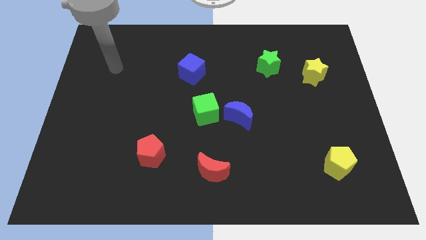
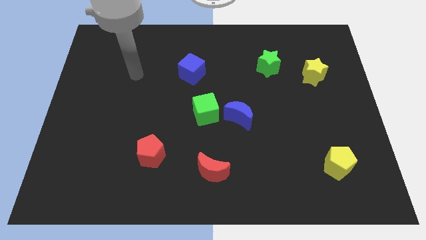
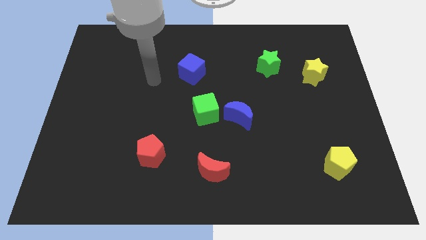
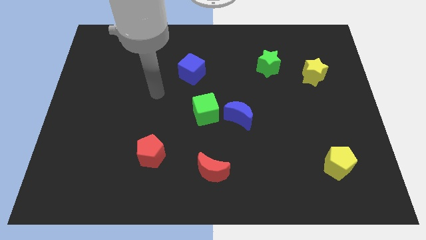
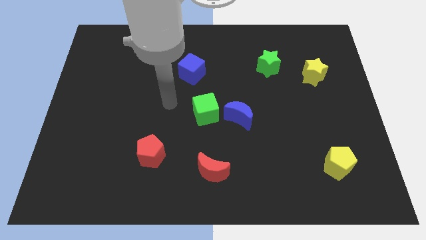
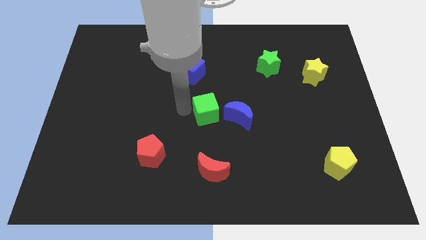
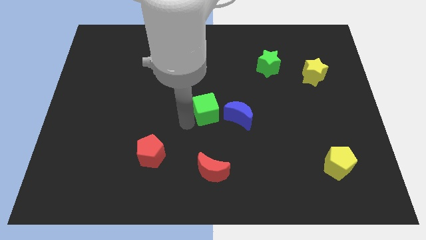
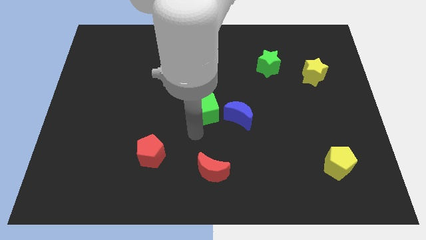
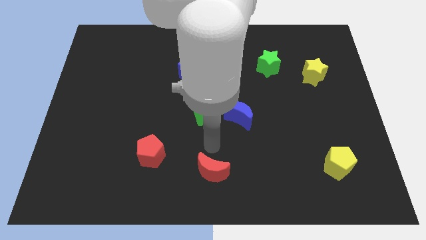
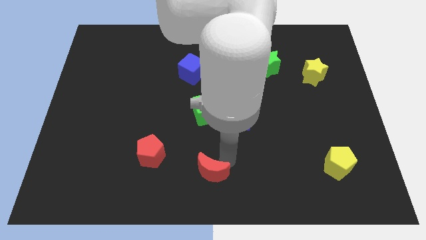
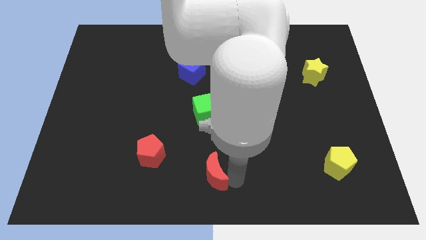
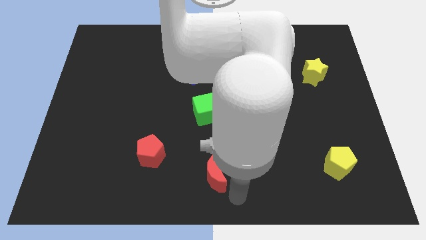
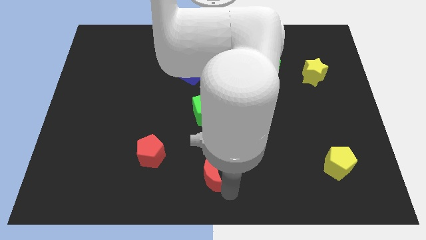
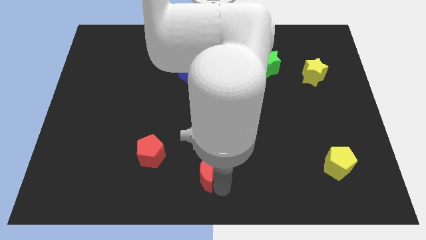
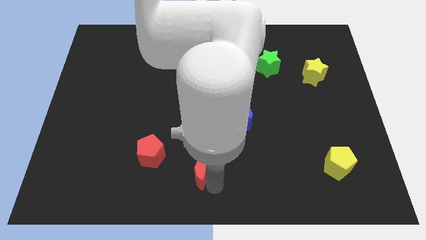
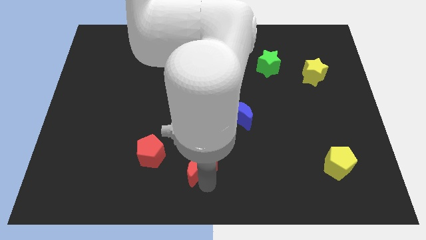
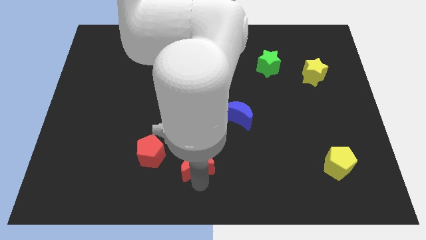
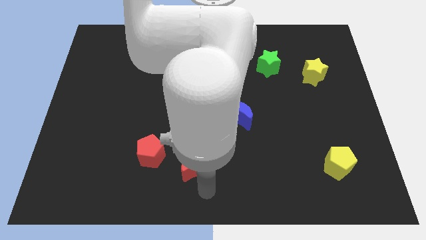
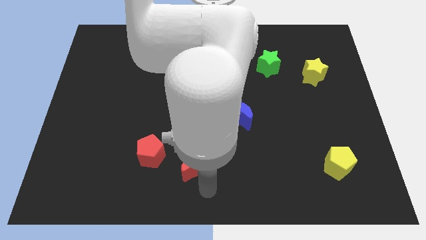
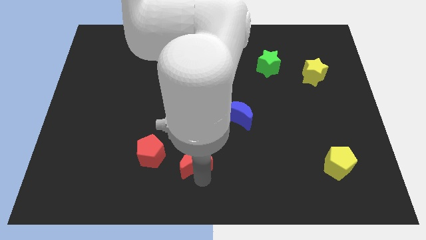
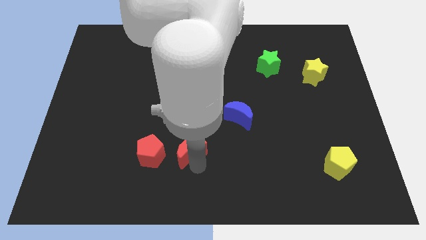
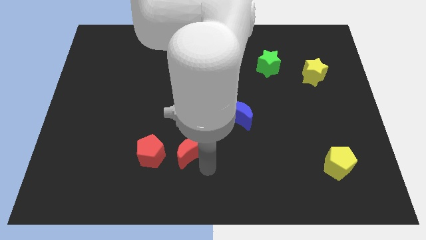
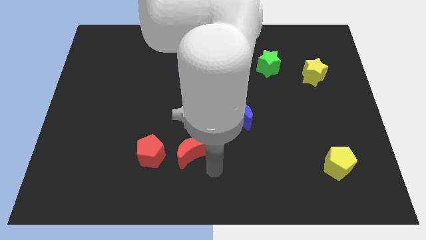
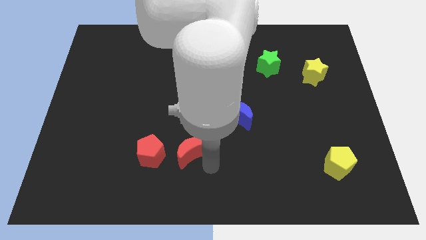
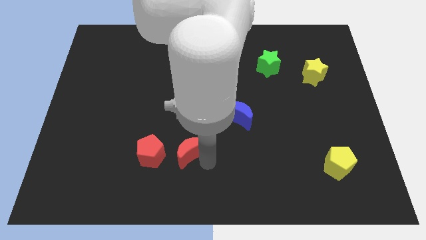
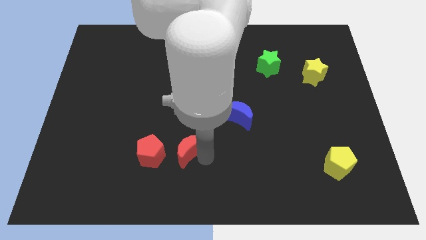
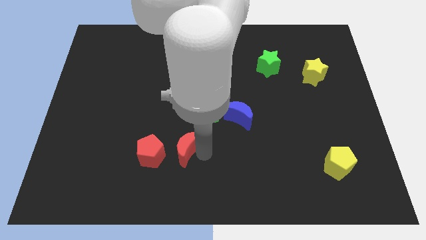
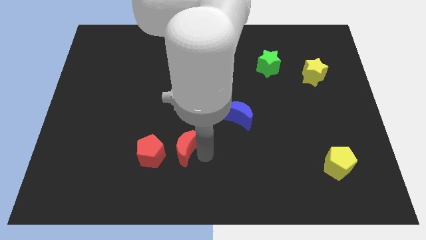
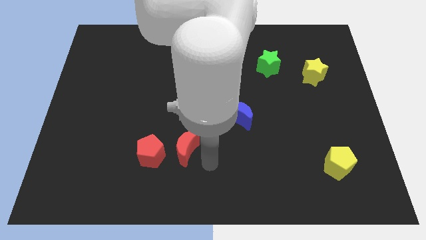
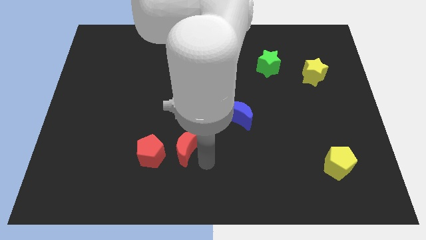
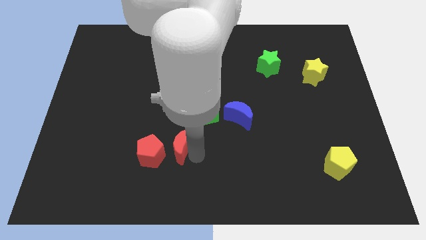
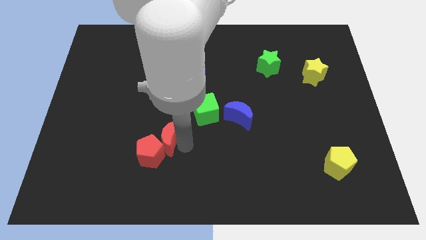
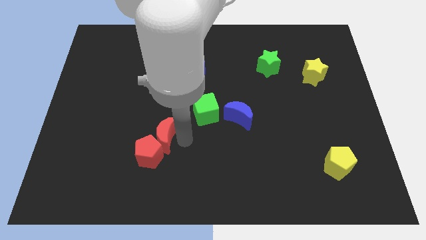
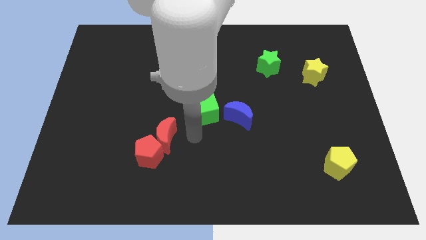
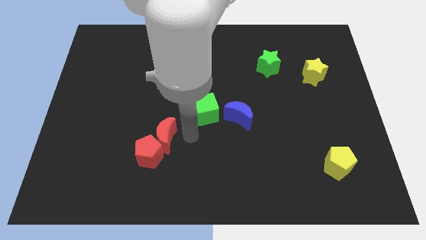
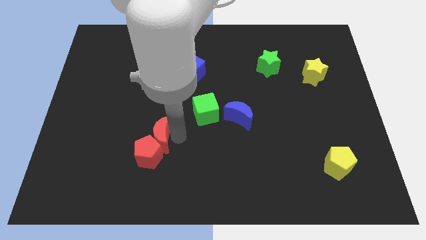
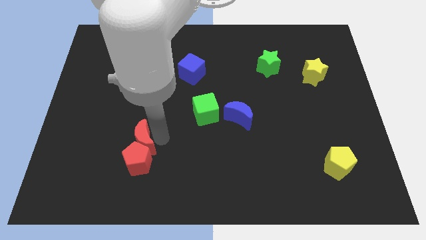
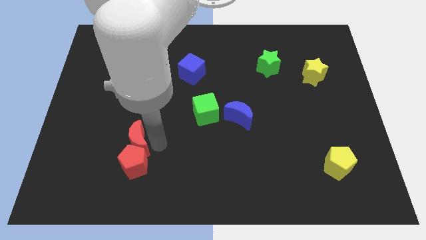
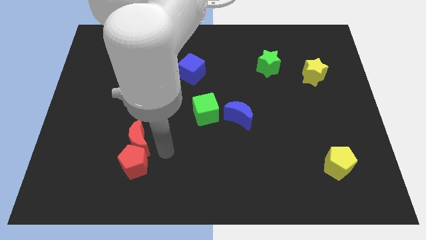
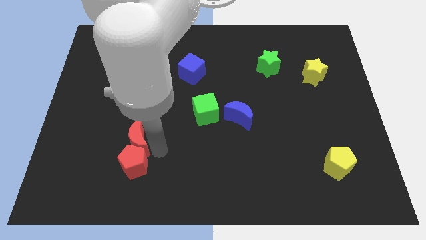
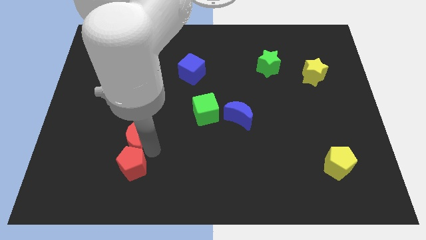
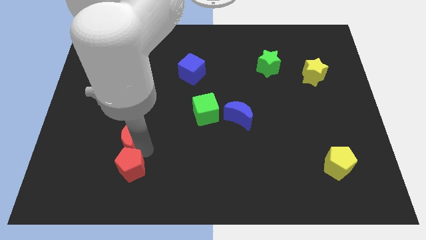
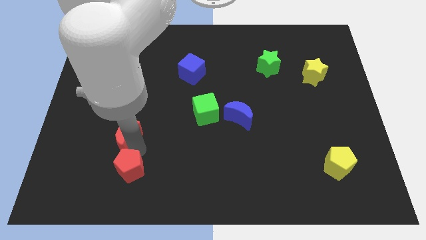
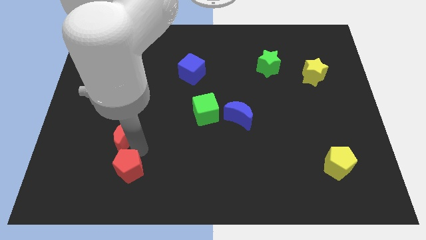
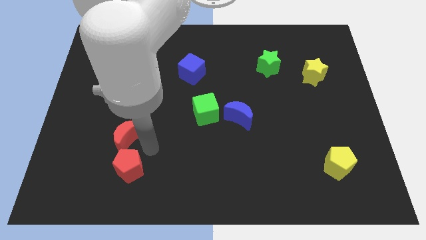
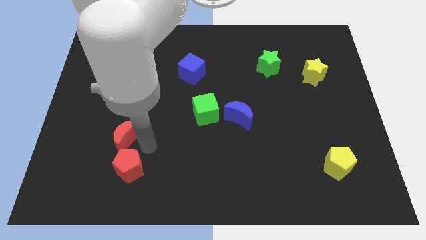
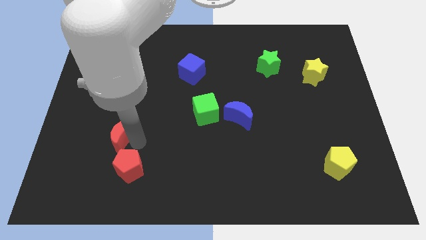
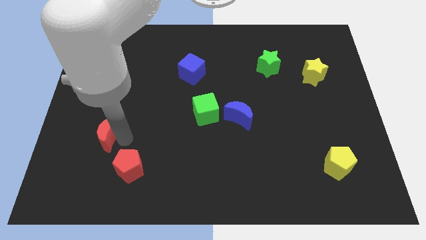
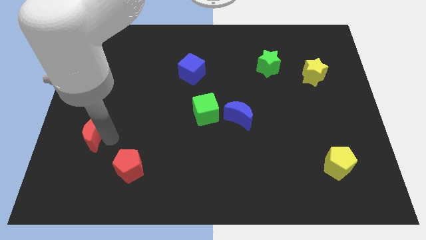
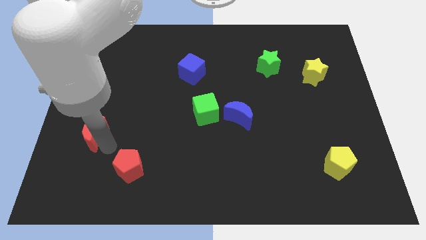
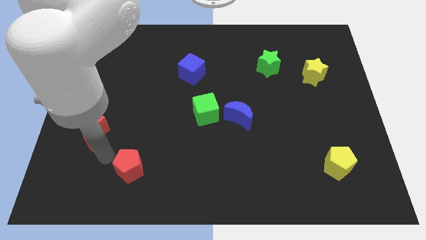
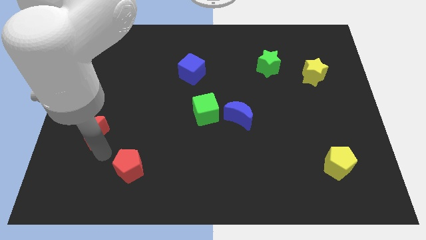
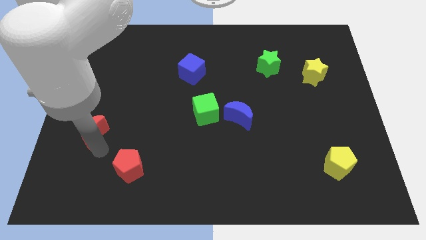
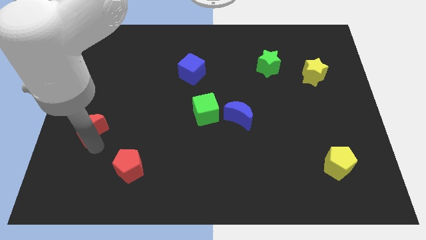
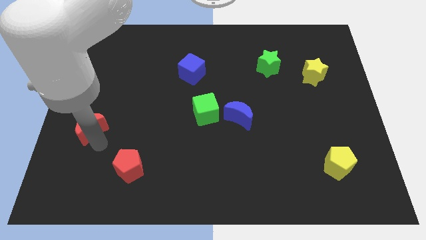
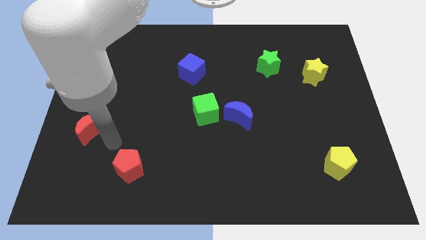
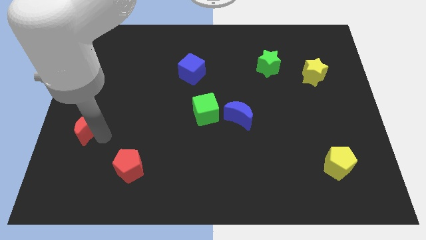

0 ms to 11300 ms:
slide the red moon to the left side

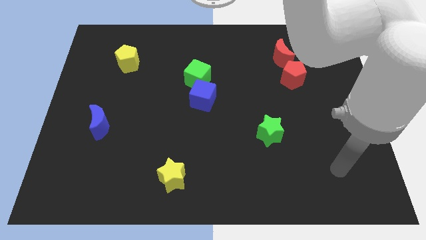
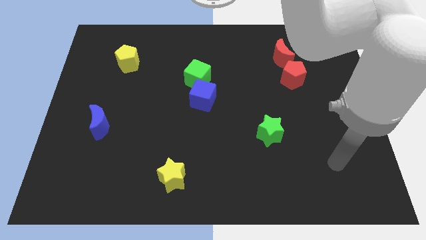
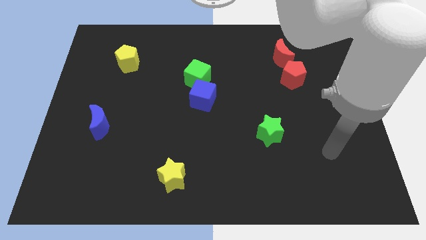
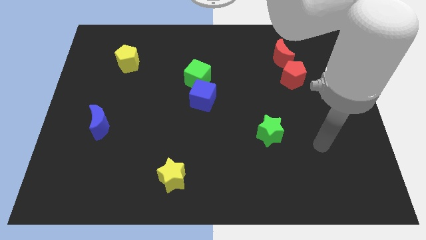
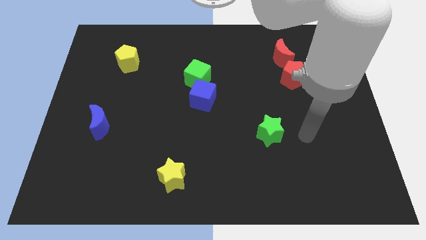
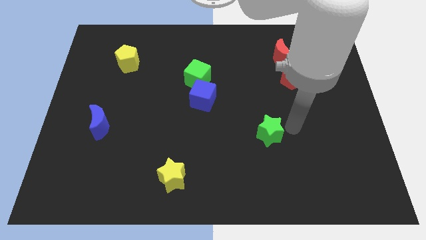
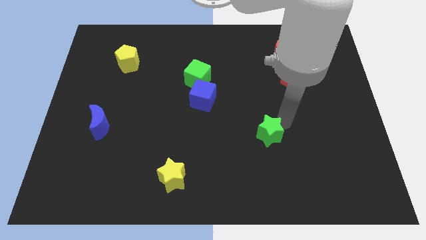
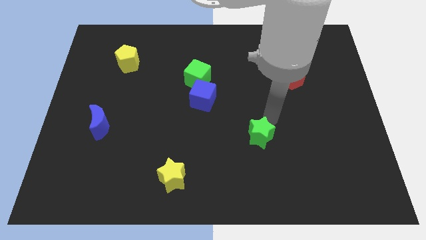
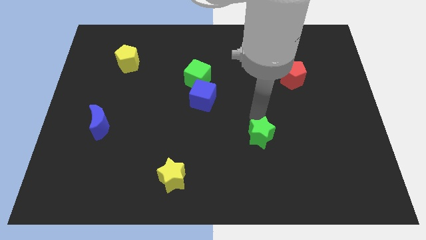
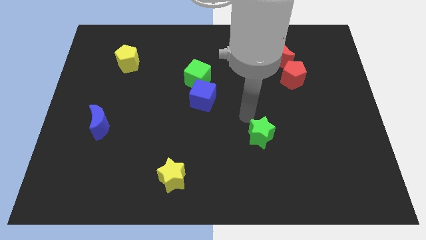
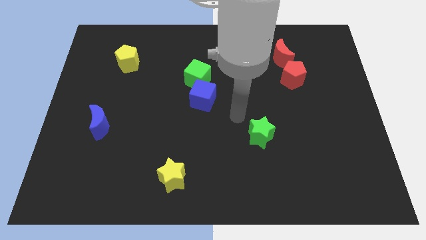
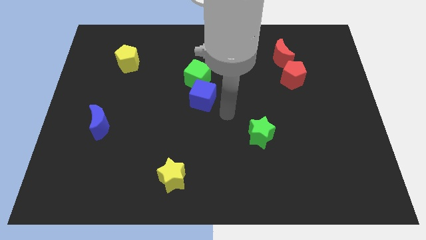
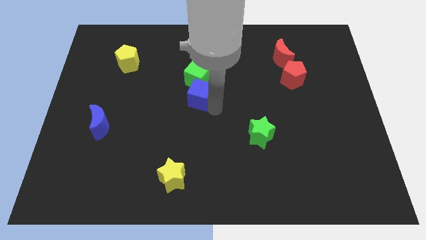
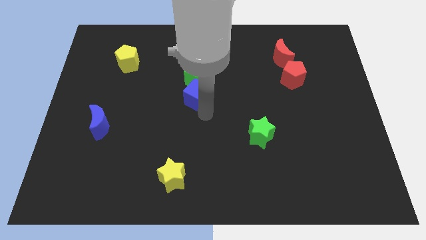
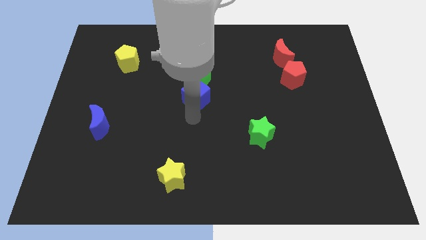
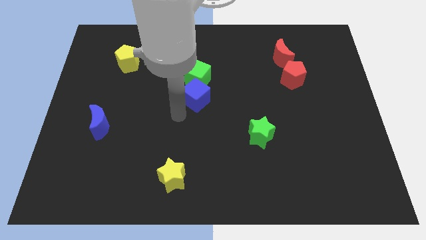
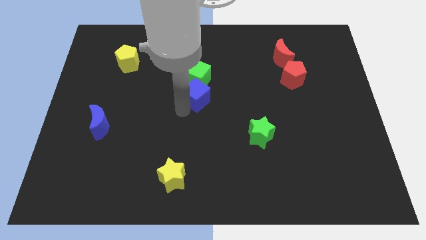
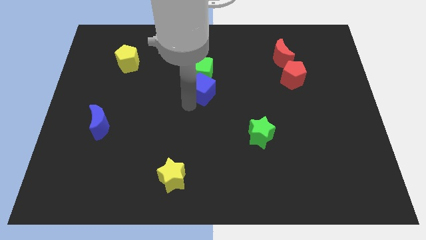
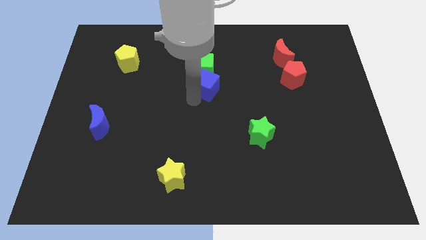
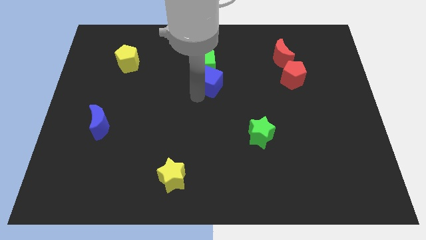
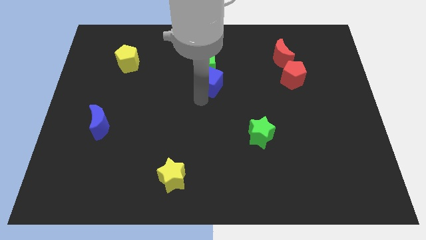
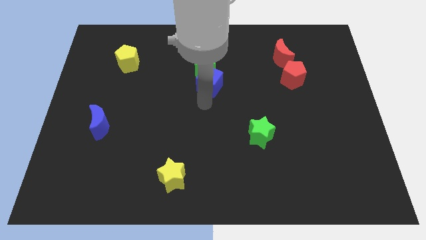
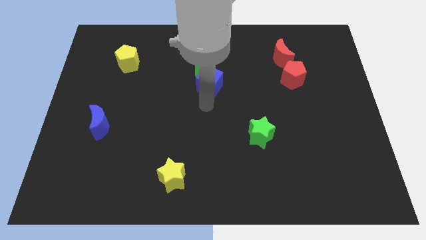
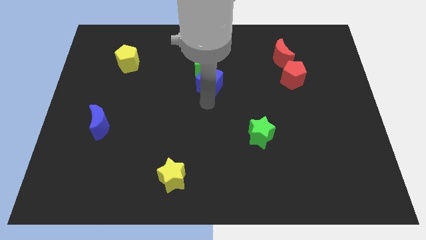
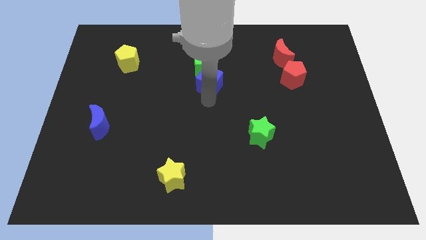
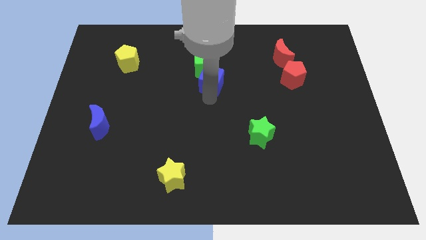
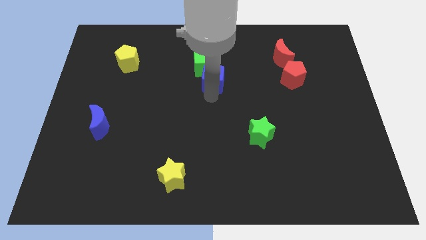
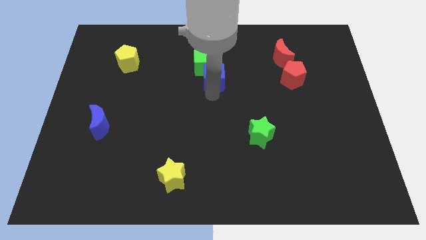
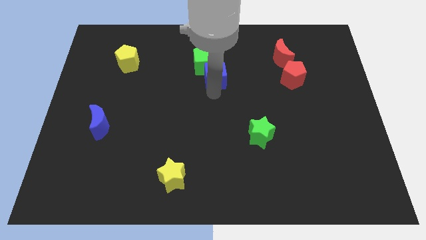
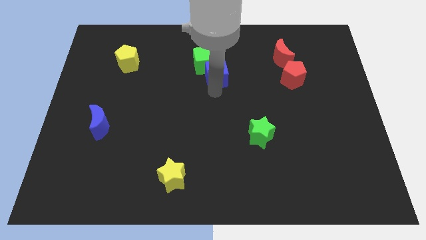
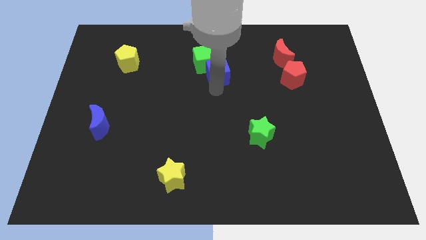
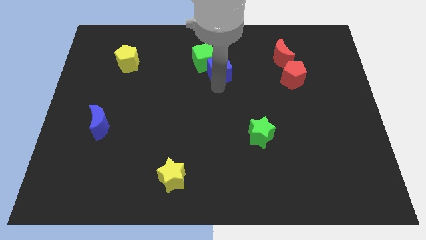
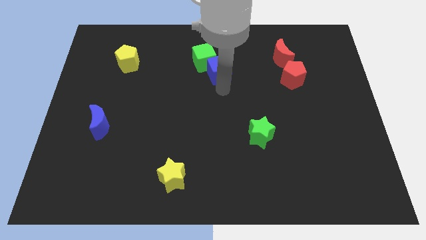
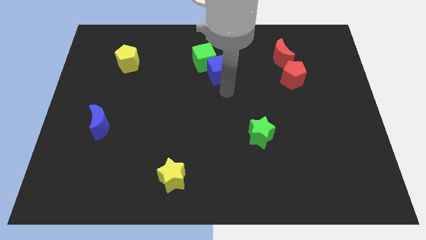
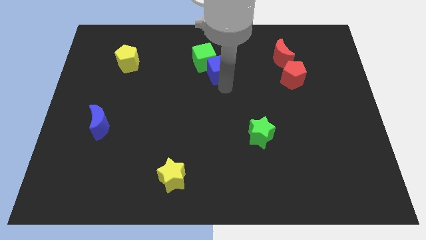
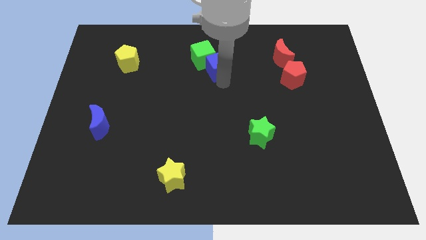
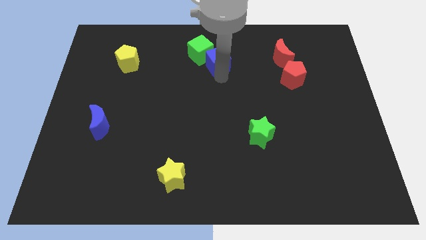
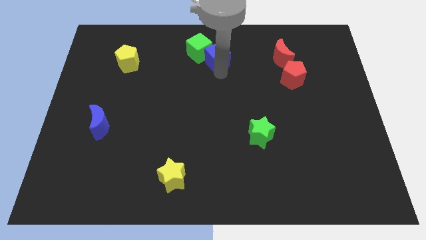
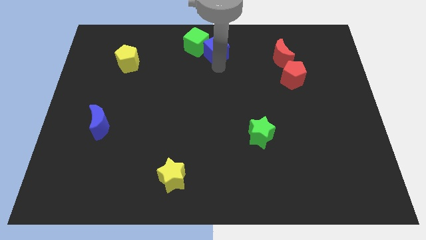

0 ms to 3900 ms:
slide the blue cube to the top
